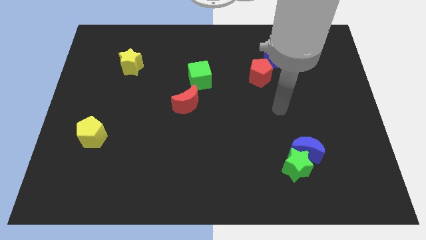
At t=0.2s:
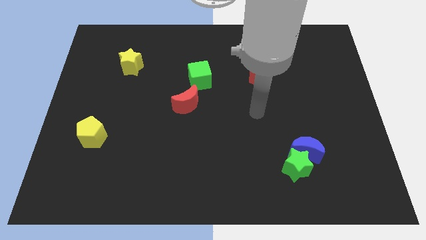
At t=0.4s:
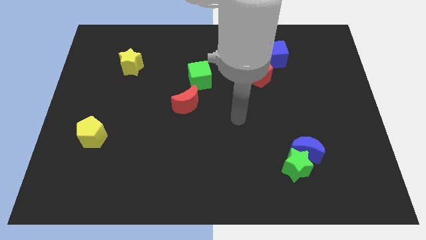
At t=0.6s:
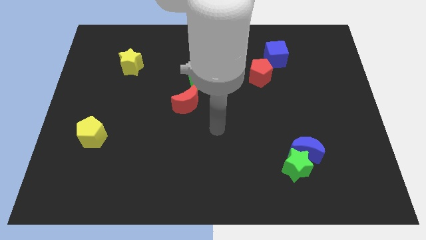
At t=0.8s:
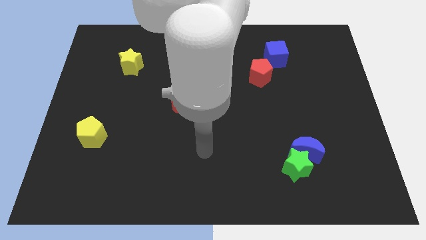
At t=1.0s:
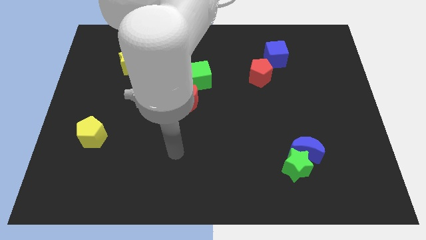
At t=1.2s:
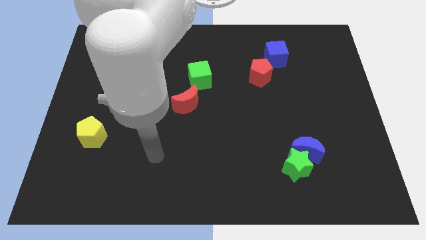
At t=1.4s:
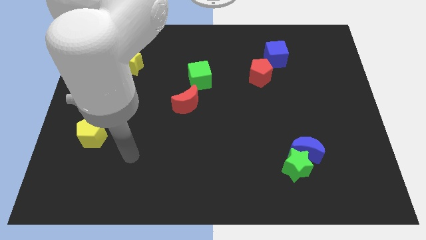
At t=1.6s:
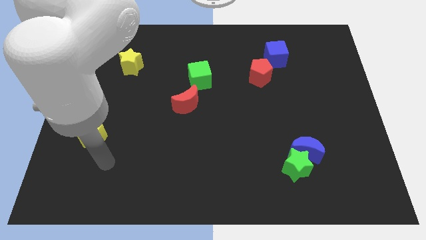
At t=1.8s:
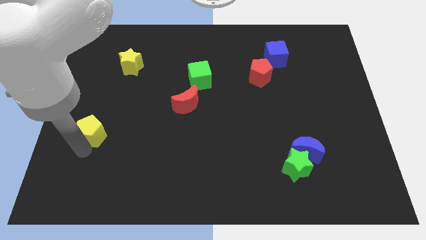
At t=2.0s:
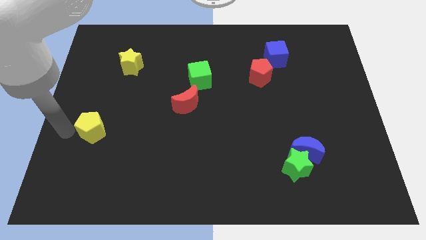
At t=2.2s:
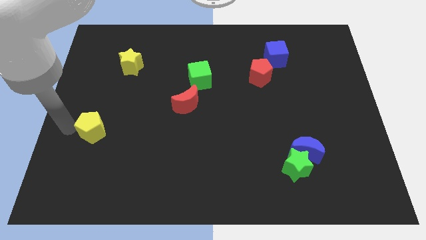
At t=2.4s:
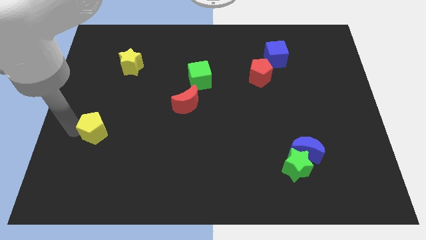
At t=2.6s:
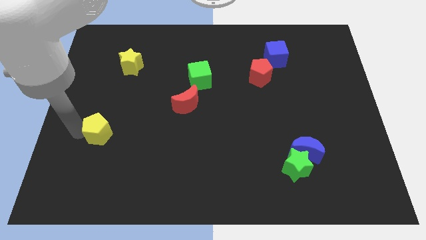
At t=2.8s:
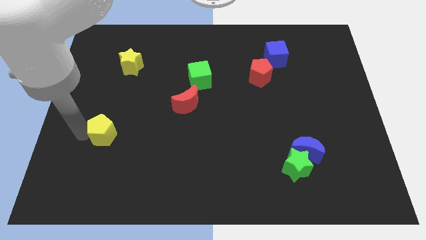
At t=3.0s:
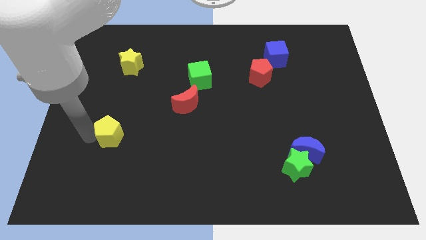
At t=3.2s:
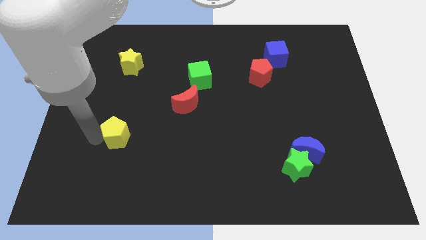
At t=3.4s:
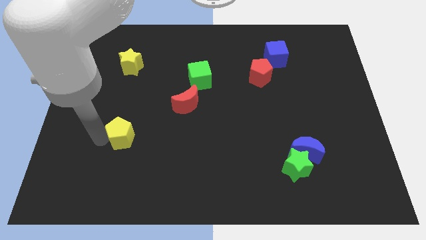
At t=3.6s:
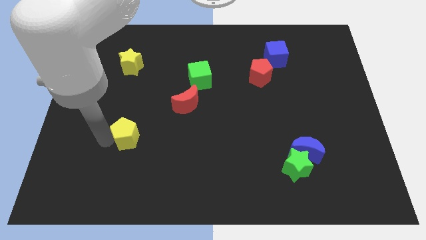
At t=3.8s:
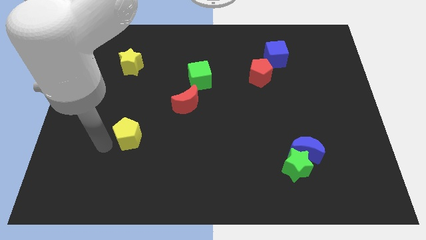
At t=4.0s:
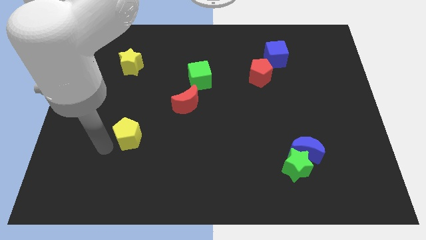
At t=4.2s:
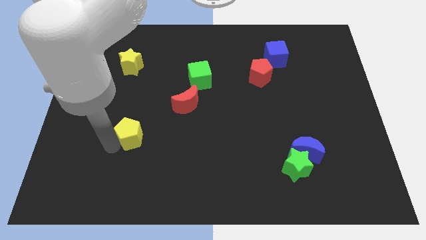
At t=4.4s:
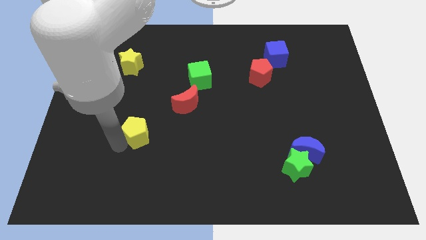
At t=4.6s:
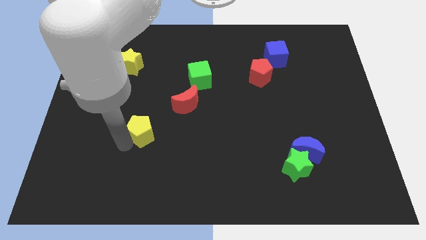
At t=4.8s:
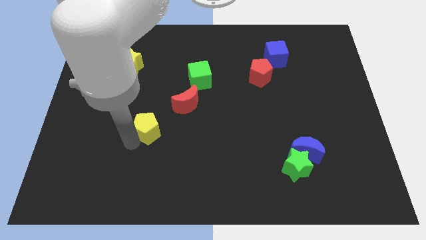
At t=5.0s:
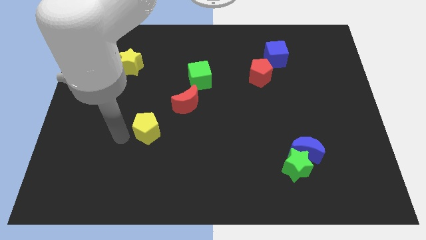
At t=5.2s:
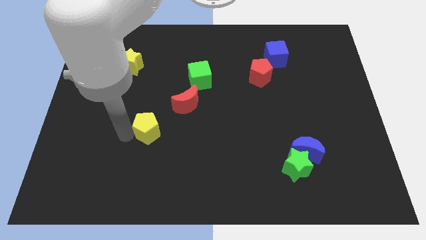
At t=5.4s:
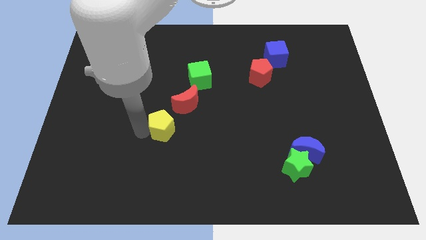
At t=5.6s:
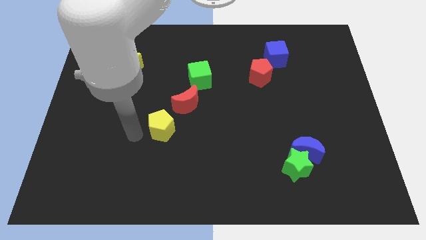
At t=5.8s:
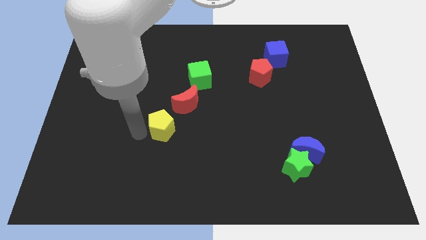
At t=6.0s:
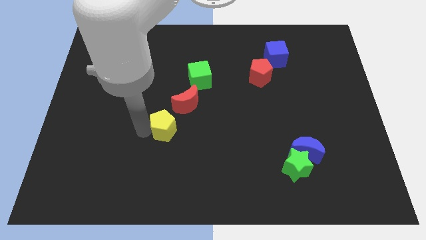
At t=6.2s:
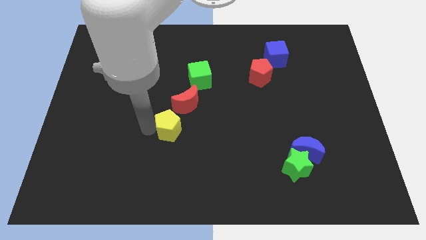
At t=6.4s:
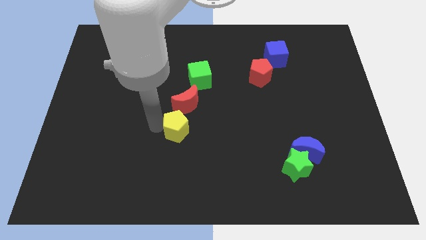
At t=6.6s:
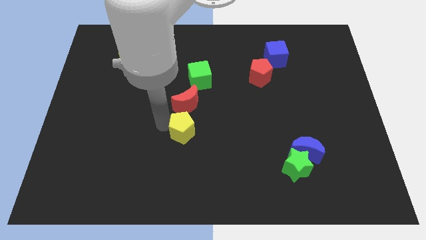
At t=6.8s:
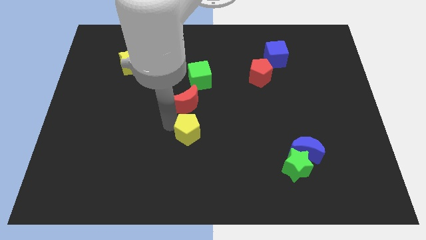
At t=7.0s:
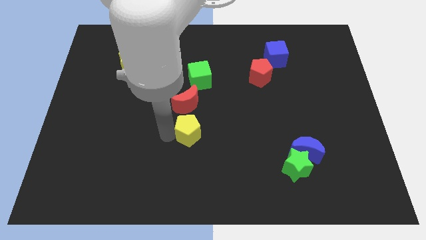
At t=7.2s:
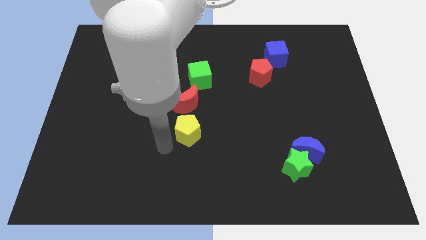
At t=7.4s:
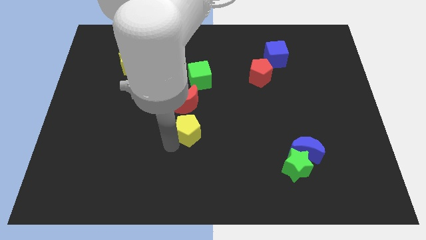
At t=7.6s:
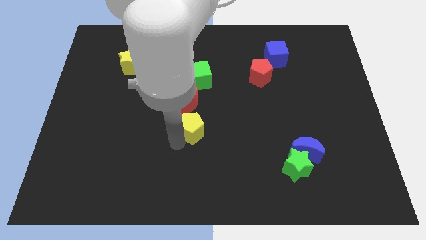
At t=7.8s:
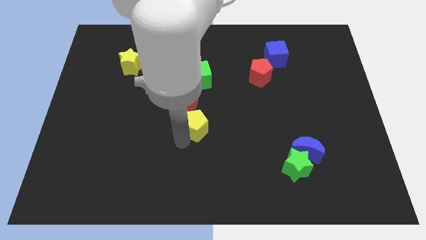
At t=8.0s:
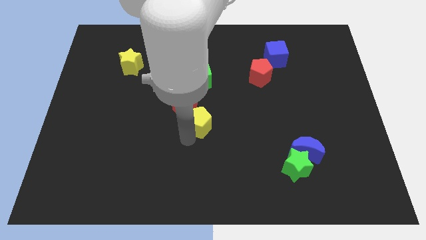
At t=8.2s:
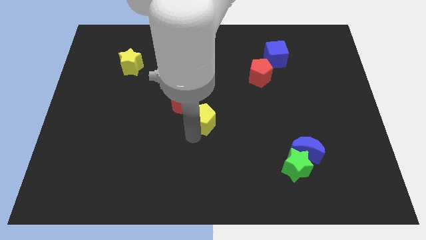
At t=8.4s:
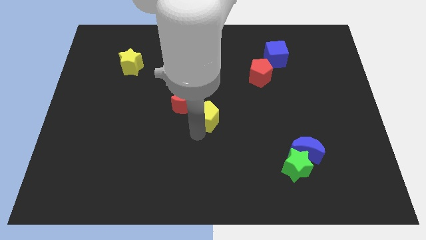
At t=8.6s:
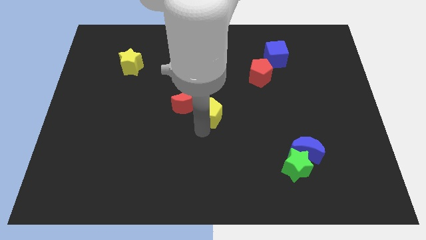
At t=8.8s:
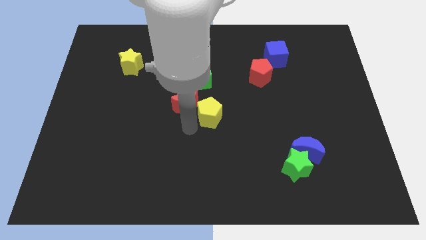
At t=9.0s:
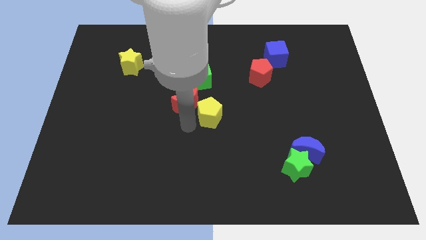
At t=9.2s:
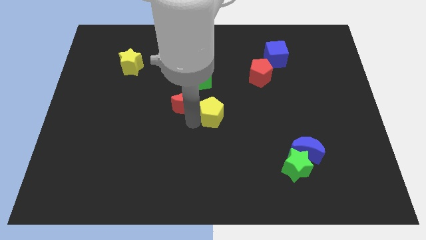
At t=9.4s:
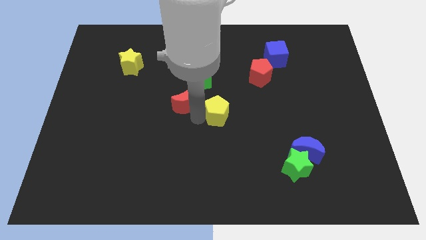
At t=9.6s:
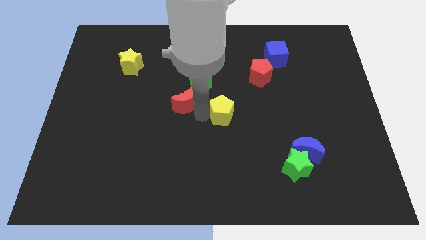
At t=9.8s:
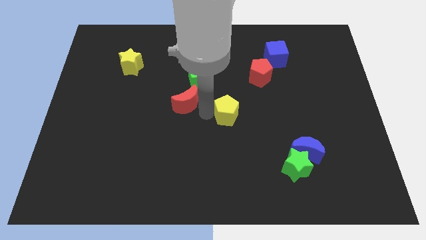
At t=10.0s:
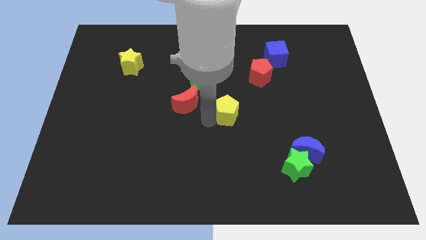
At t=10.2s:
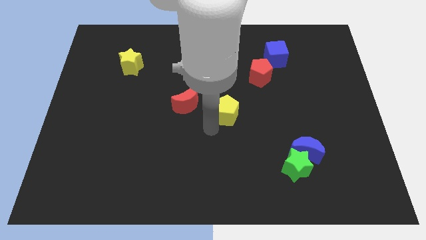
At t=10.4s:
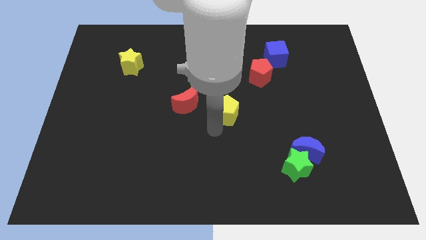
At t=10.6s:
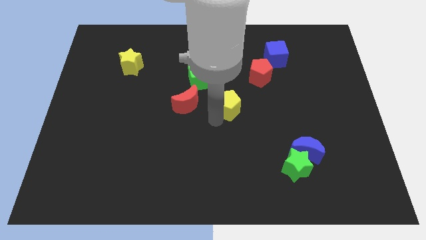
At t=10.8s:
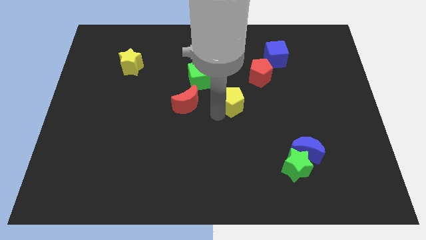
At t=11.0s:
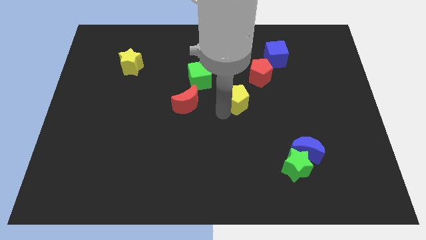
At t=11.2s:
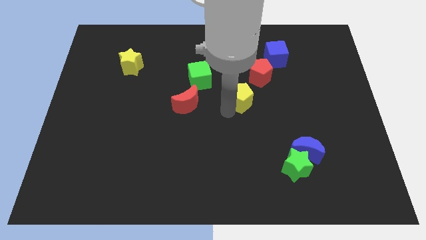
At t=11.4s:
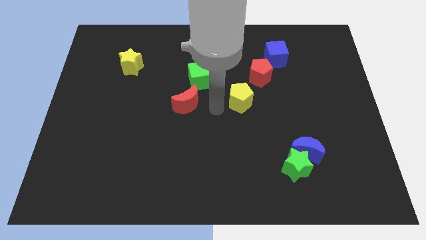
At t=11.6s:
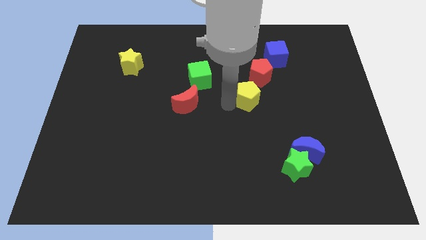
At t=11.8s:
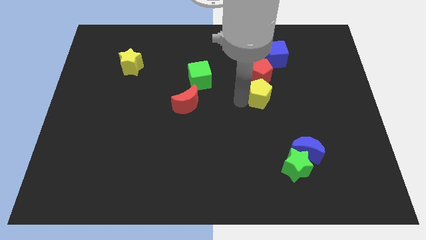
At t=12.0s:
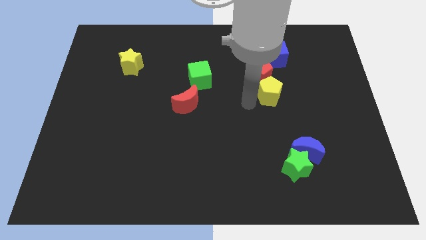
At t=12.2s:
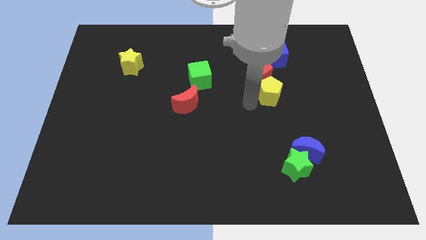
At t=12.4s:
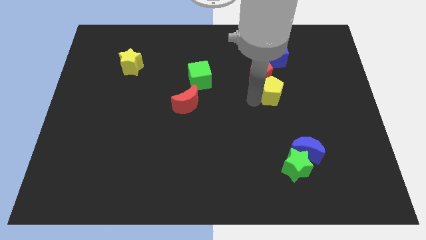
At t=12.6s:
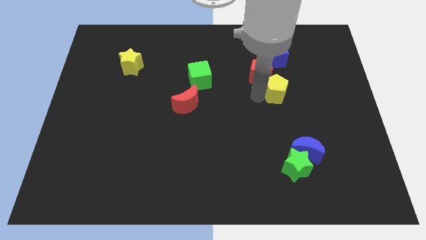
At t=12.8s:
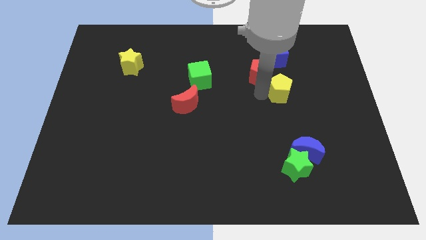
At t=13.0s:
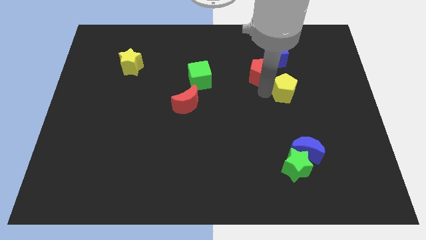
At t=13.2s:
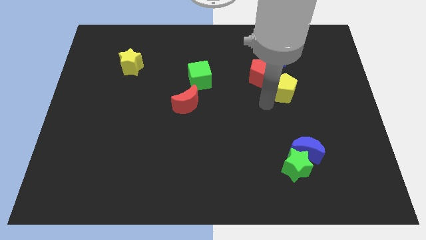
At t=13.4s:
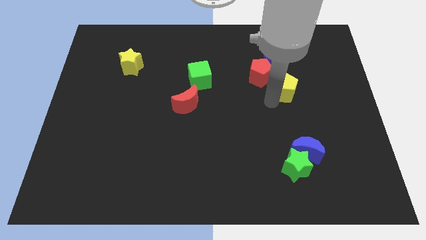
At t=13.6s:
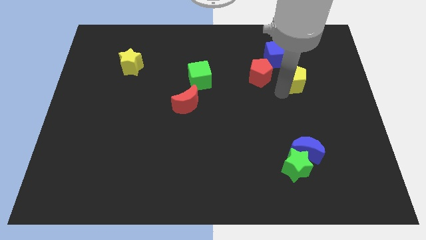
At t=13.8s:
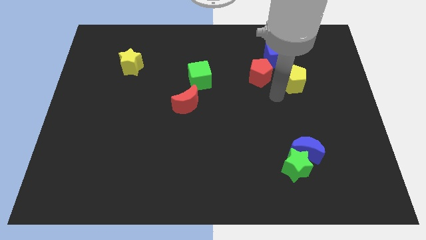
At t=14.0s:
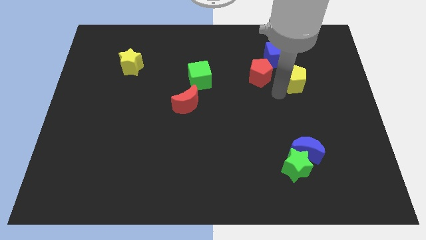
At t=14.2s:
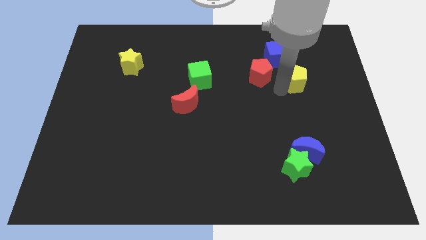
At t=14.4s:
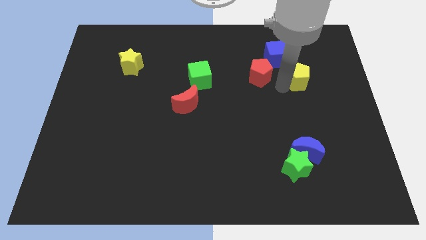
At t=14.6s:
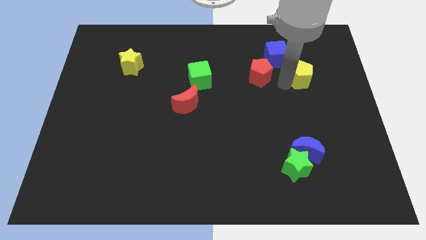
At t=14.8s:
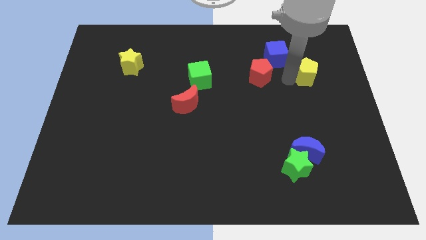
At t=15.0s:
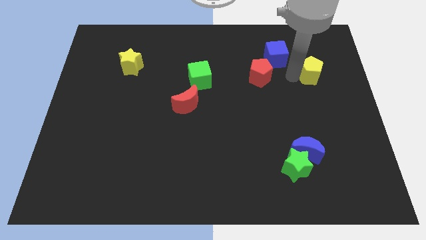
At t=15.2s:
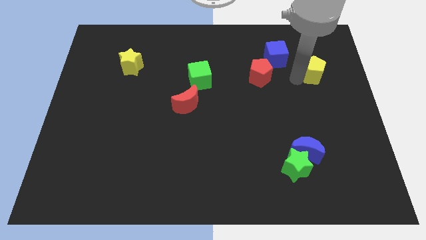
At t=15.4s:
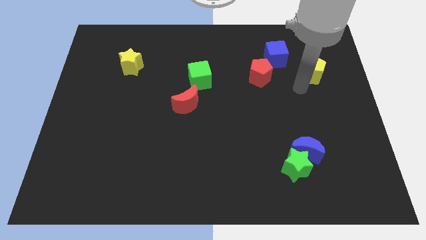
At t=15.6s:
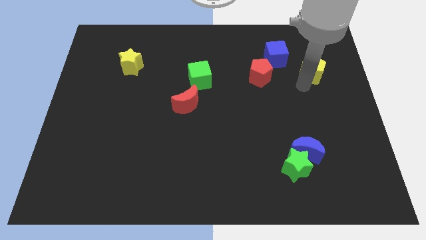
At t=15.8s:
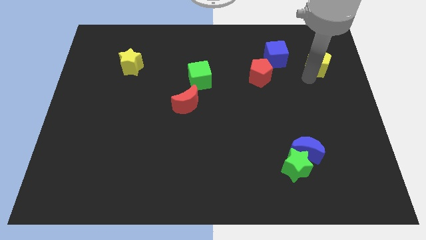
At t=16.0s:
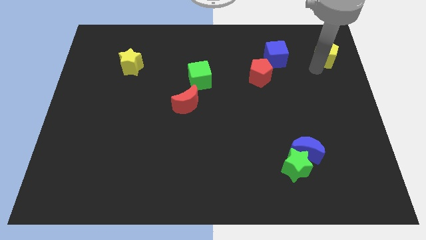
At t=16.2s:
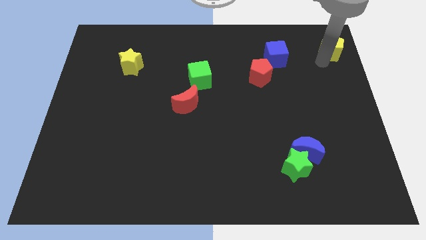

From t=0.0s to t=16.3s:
move the yellow pentagon to the top right corner
